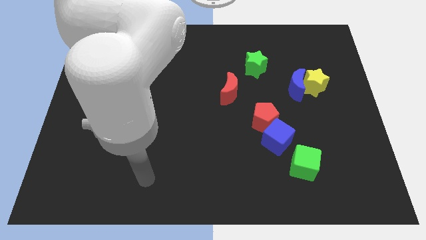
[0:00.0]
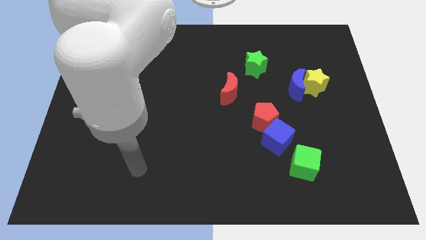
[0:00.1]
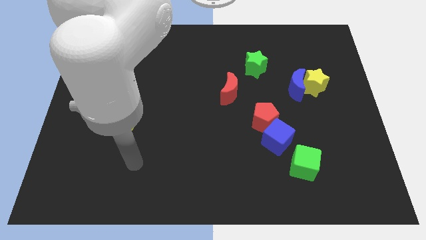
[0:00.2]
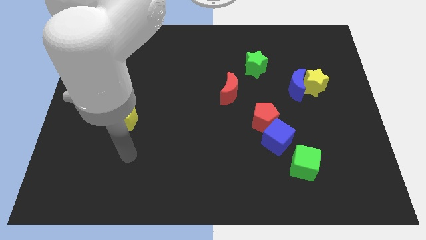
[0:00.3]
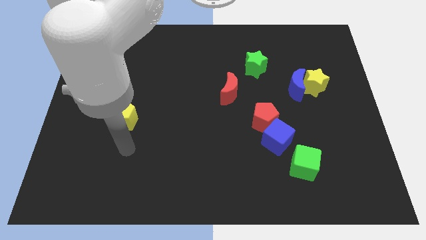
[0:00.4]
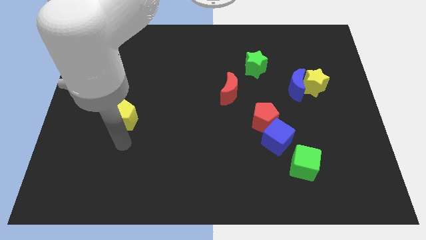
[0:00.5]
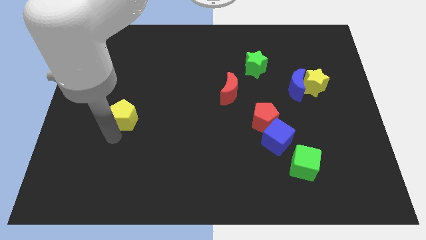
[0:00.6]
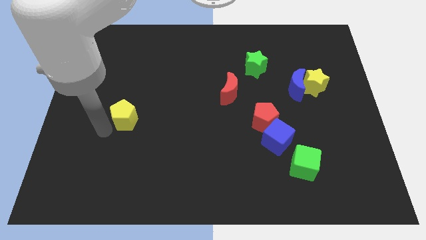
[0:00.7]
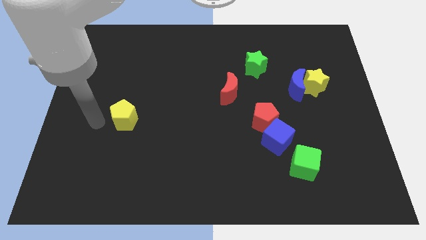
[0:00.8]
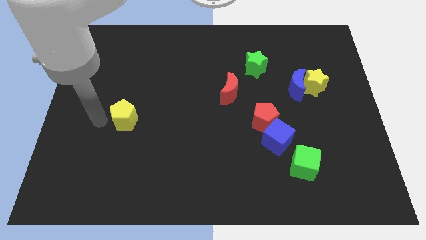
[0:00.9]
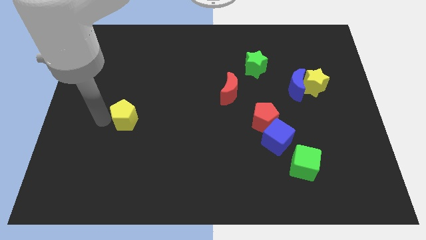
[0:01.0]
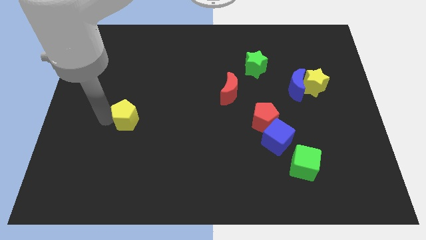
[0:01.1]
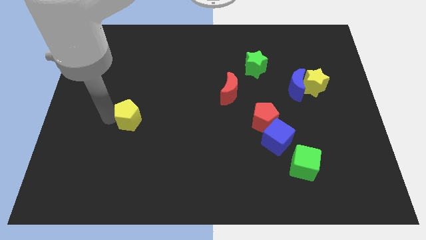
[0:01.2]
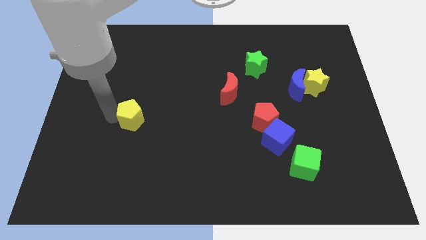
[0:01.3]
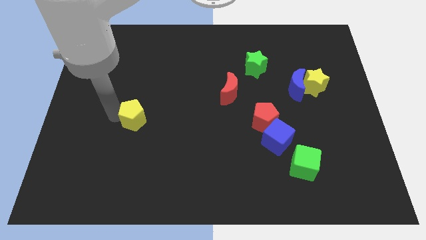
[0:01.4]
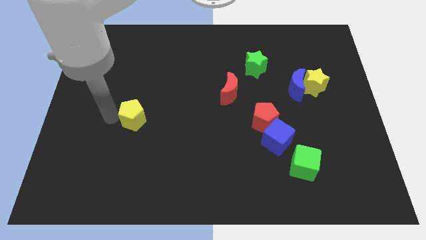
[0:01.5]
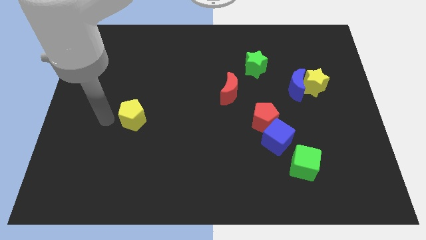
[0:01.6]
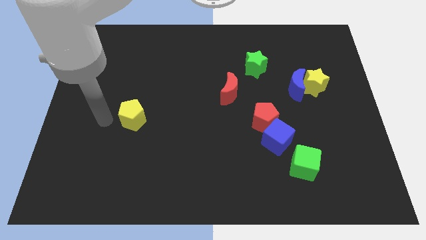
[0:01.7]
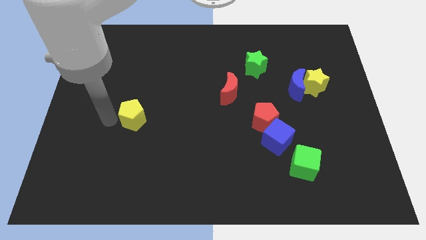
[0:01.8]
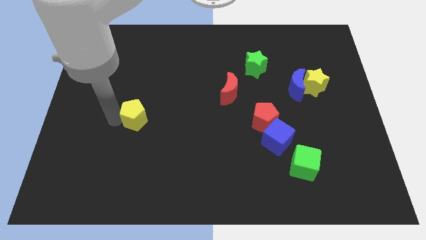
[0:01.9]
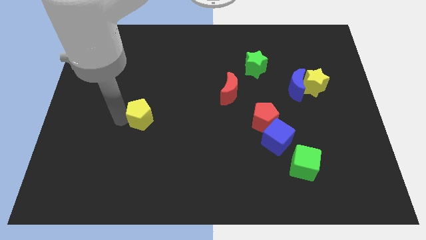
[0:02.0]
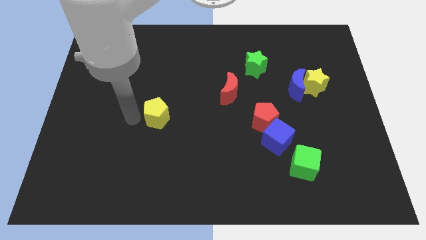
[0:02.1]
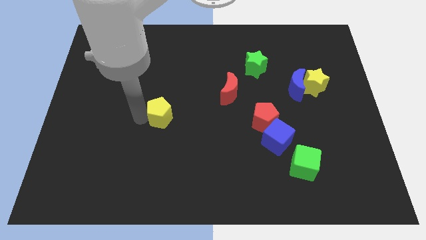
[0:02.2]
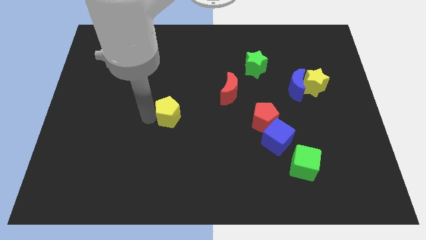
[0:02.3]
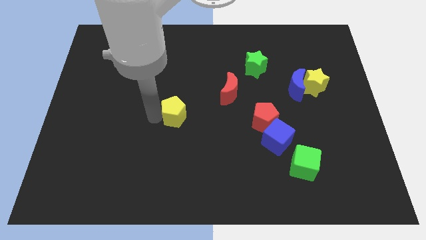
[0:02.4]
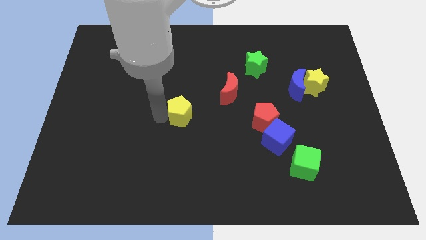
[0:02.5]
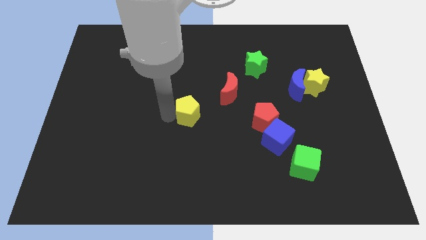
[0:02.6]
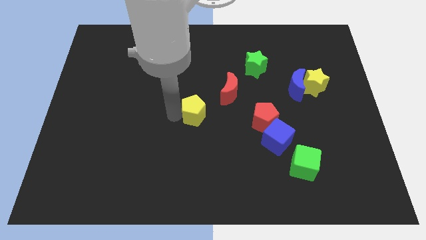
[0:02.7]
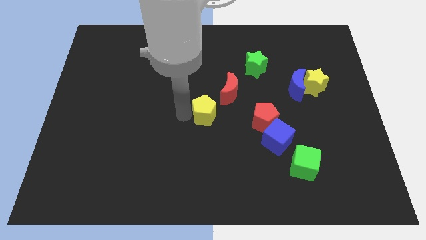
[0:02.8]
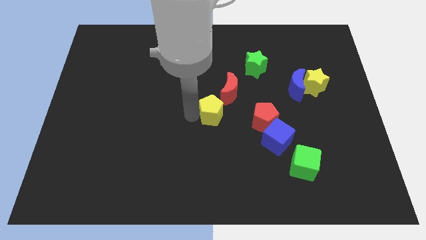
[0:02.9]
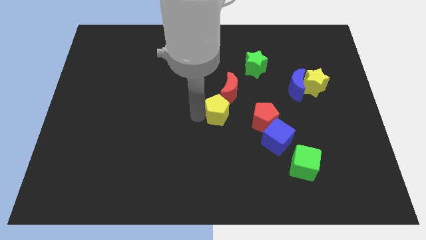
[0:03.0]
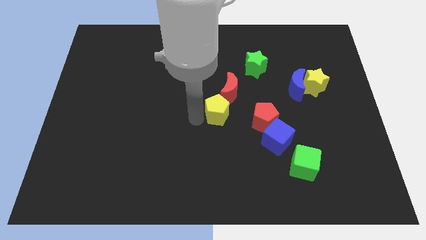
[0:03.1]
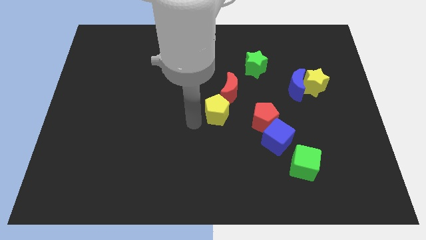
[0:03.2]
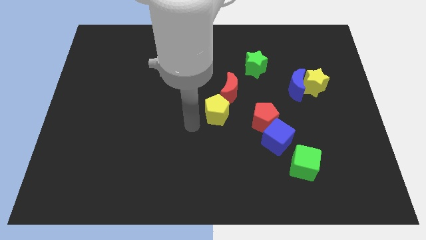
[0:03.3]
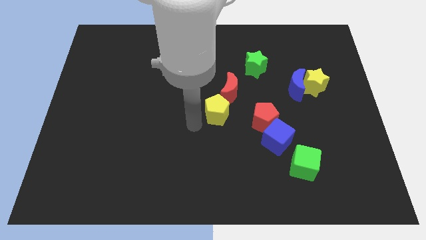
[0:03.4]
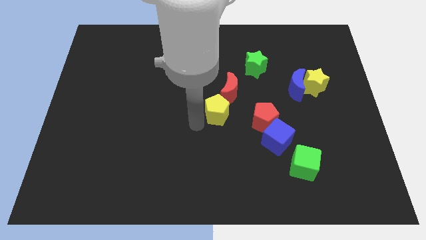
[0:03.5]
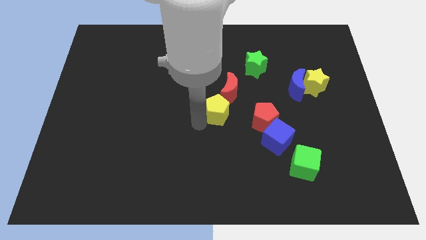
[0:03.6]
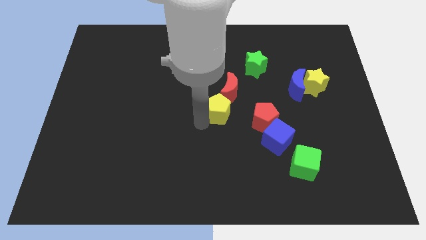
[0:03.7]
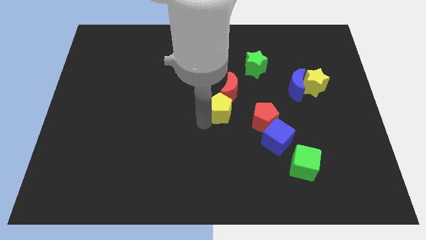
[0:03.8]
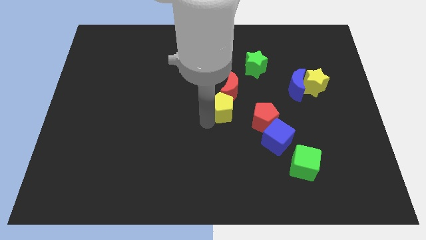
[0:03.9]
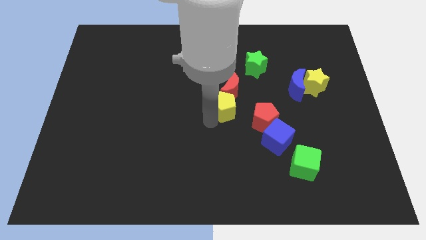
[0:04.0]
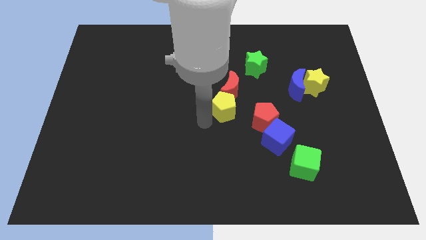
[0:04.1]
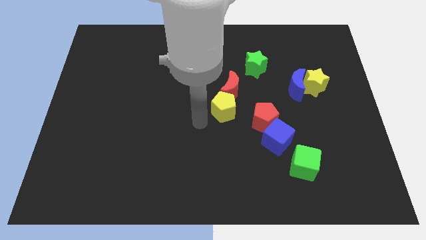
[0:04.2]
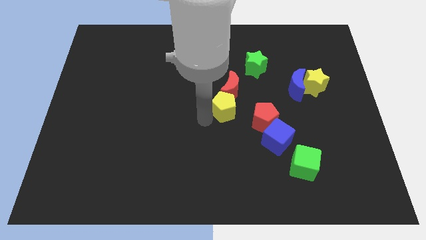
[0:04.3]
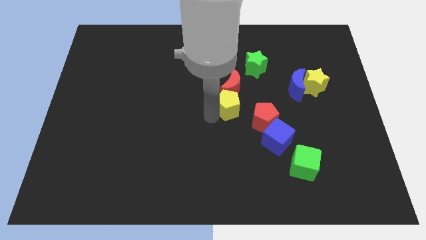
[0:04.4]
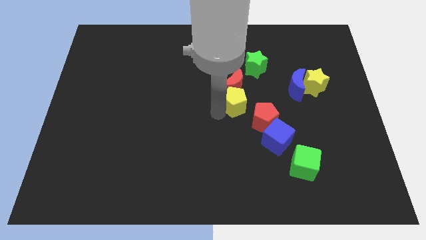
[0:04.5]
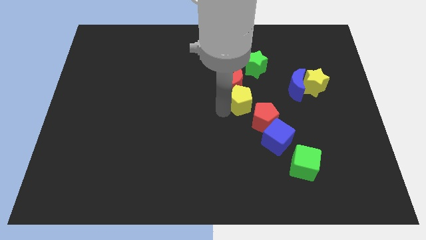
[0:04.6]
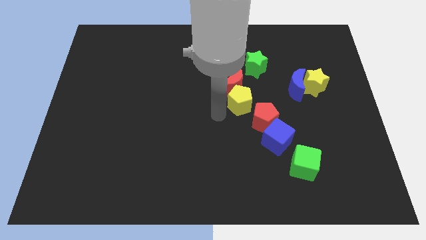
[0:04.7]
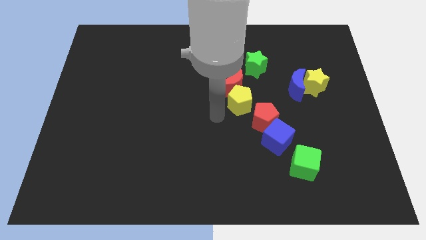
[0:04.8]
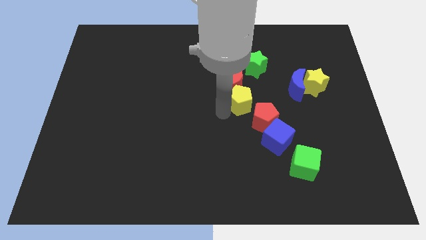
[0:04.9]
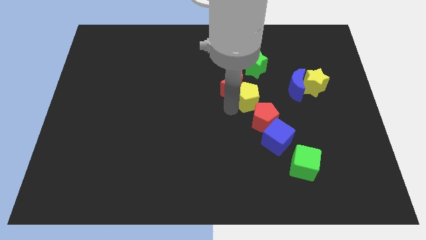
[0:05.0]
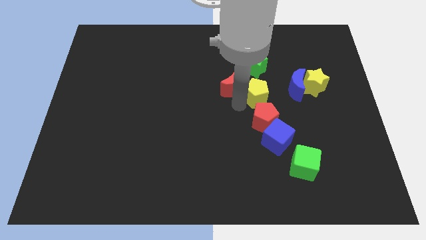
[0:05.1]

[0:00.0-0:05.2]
push the yellow pentagon to the left side of the yellow star

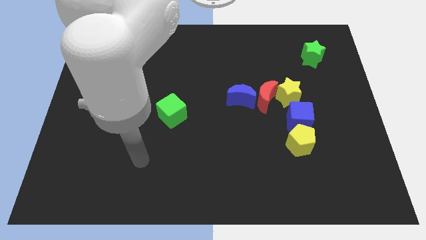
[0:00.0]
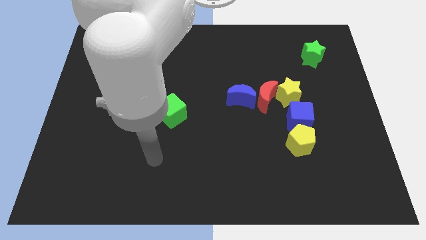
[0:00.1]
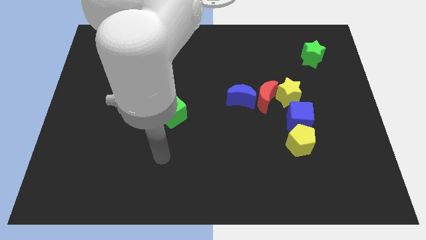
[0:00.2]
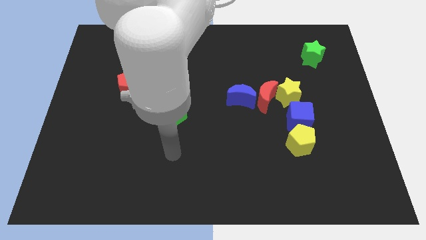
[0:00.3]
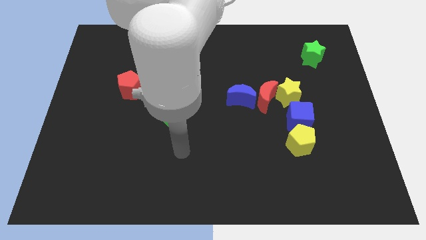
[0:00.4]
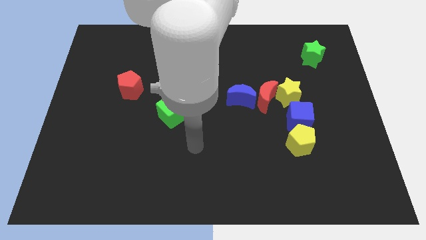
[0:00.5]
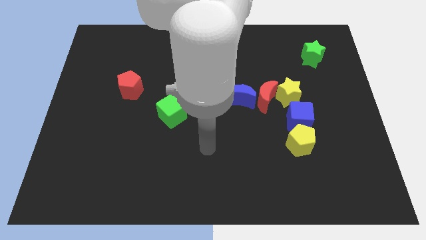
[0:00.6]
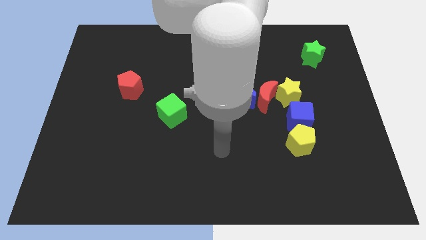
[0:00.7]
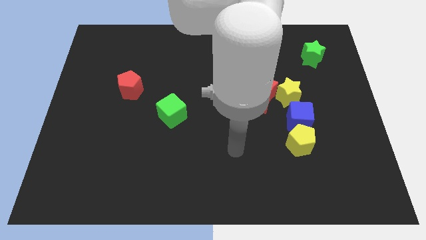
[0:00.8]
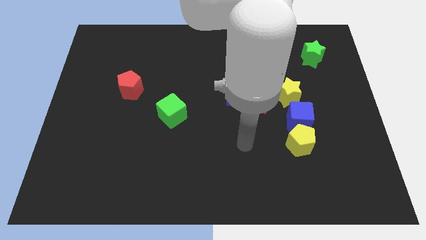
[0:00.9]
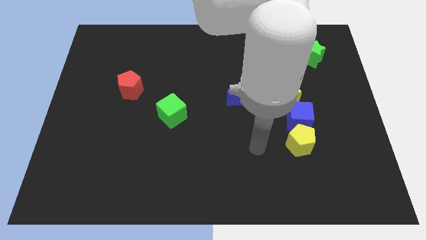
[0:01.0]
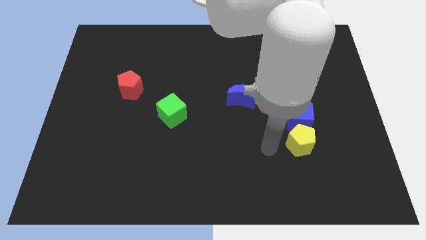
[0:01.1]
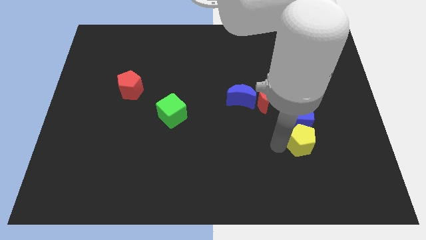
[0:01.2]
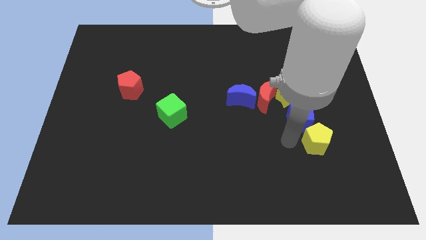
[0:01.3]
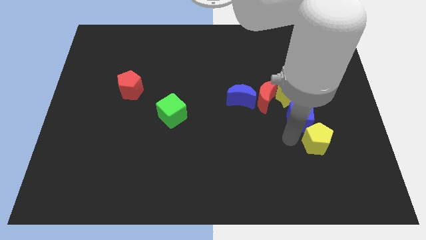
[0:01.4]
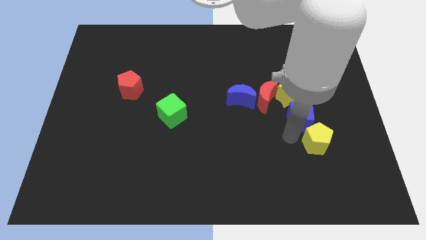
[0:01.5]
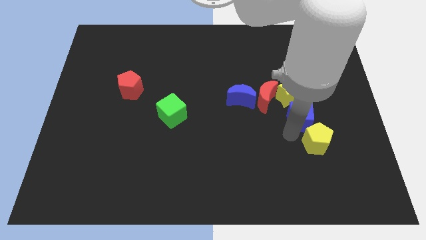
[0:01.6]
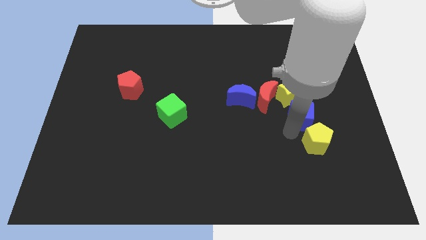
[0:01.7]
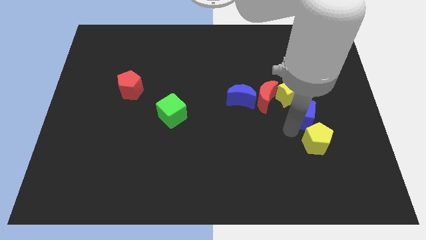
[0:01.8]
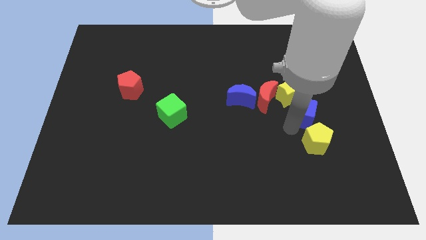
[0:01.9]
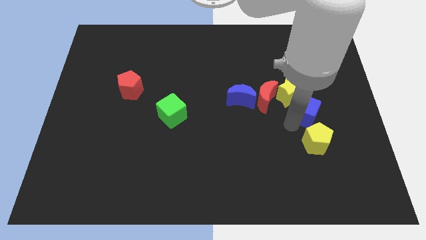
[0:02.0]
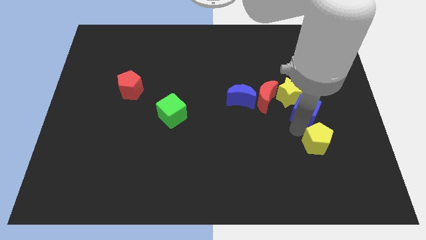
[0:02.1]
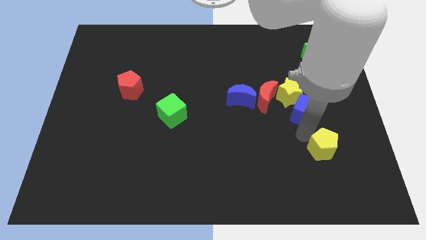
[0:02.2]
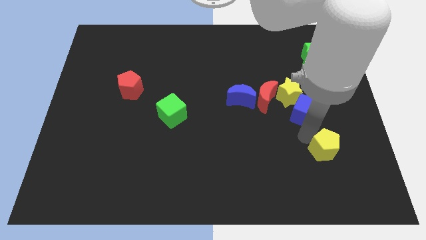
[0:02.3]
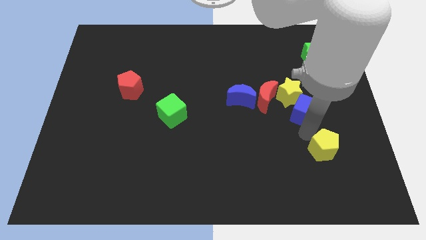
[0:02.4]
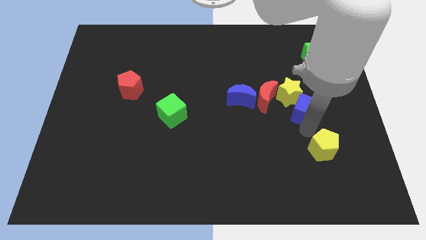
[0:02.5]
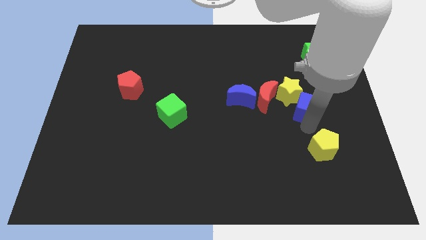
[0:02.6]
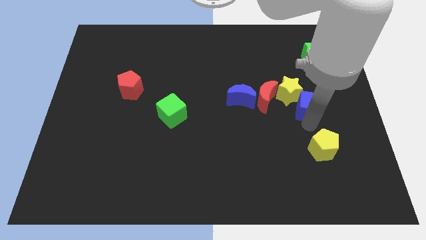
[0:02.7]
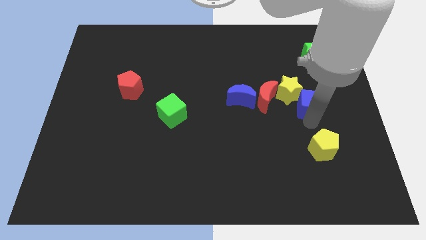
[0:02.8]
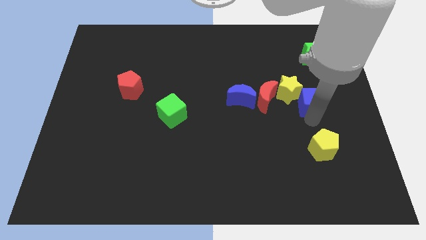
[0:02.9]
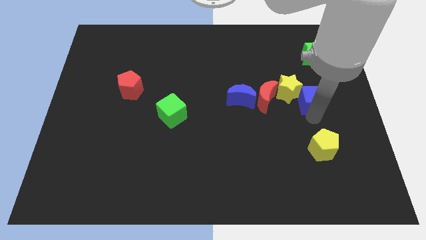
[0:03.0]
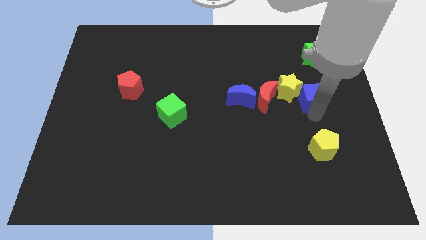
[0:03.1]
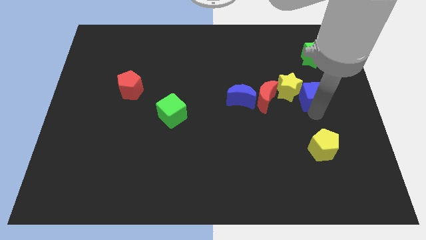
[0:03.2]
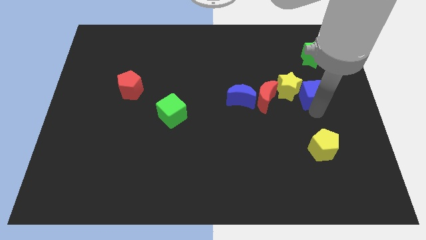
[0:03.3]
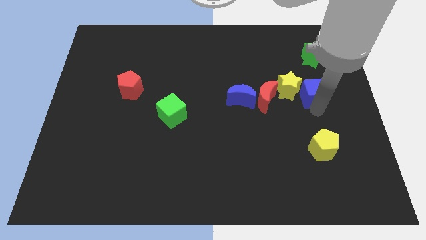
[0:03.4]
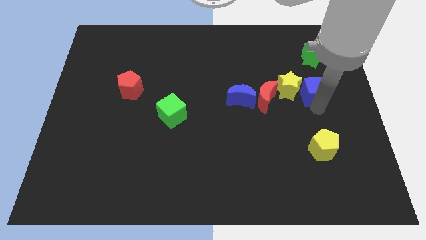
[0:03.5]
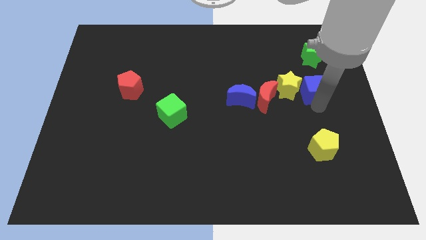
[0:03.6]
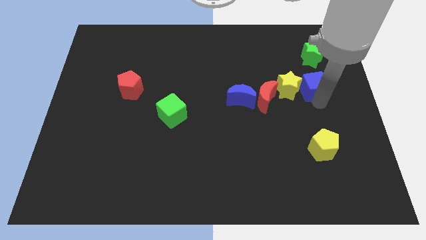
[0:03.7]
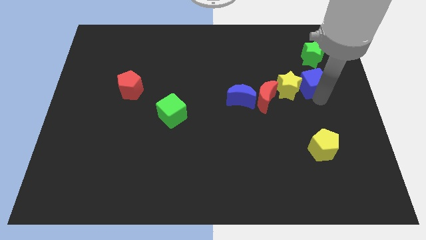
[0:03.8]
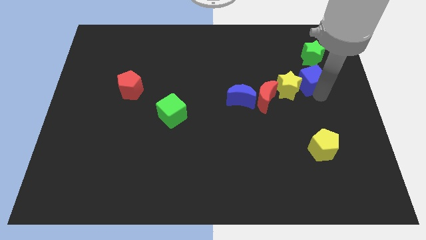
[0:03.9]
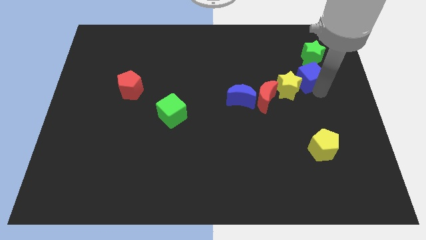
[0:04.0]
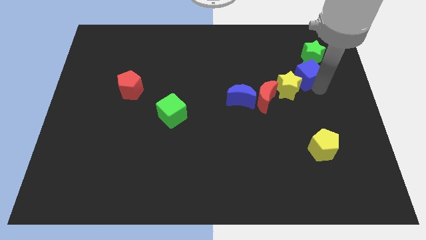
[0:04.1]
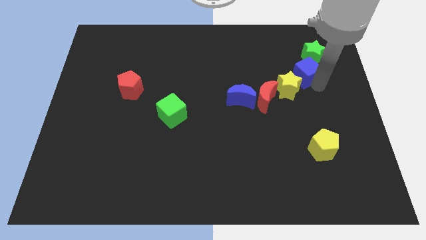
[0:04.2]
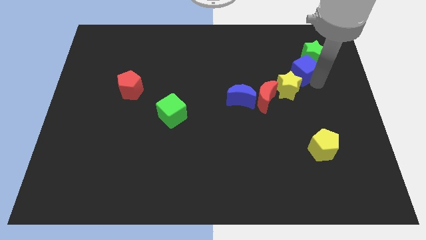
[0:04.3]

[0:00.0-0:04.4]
put the blue cube to the top side of the yellow star
